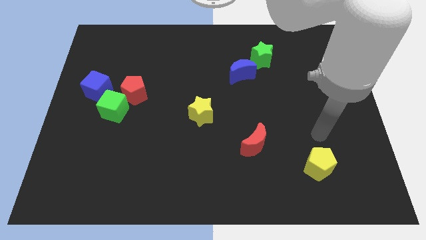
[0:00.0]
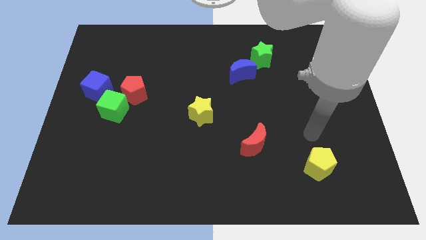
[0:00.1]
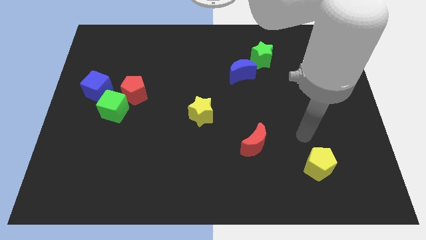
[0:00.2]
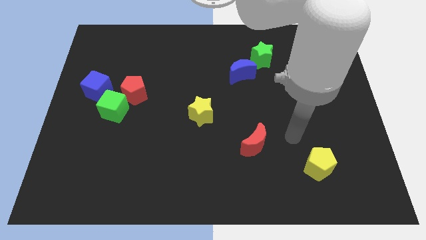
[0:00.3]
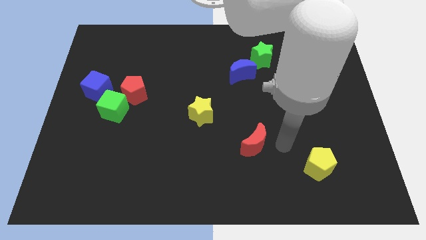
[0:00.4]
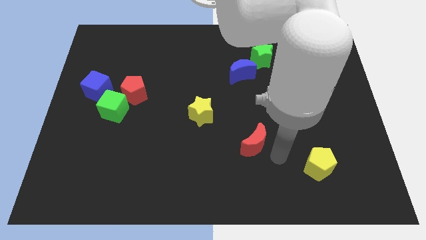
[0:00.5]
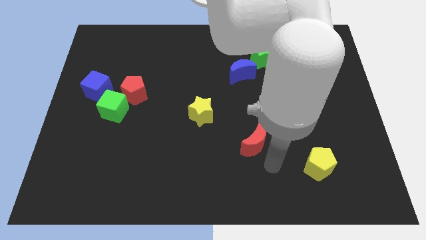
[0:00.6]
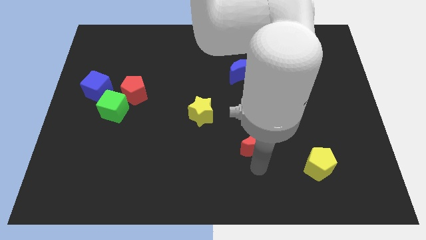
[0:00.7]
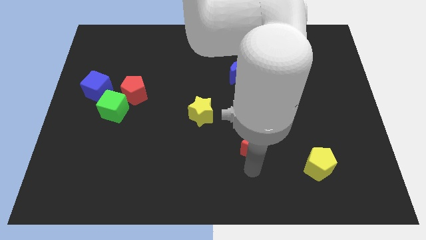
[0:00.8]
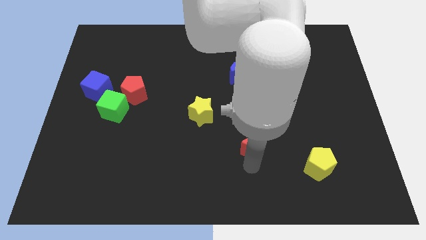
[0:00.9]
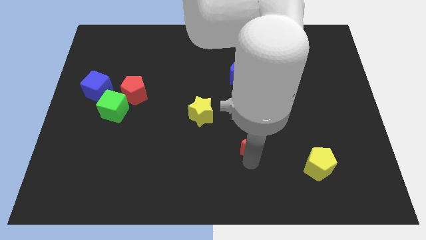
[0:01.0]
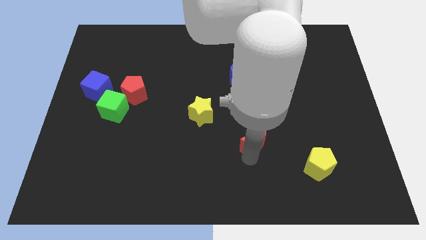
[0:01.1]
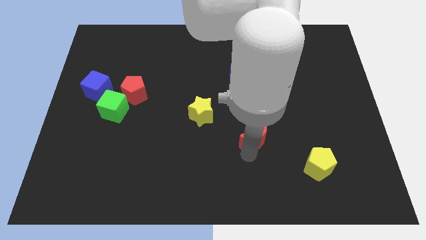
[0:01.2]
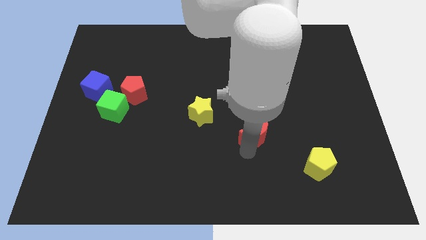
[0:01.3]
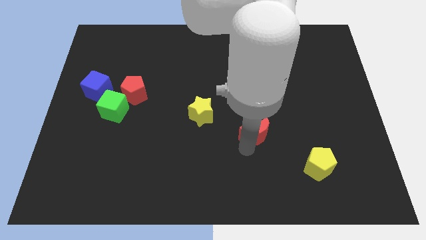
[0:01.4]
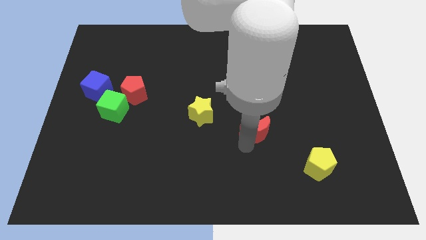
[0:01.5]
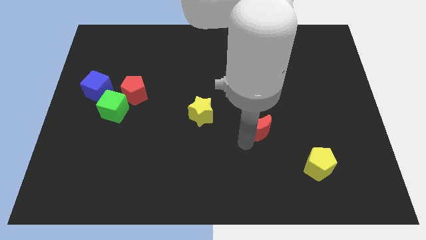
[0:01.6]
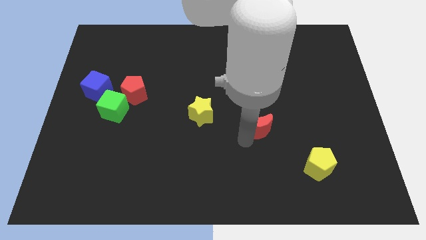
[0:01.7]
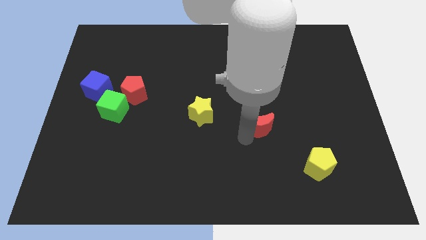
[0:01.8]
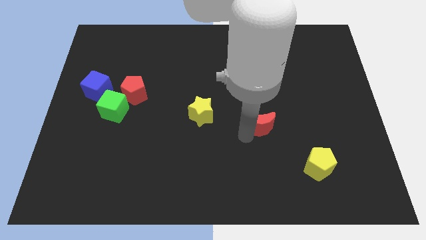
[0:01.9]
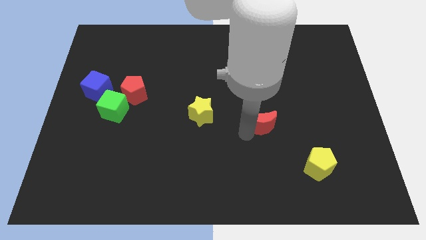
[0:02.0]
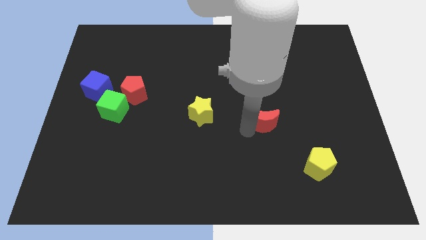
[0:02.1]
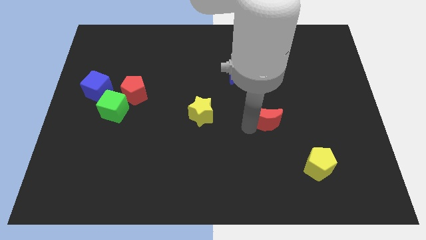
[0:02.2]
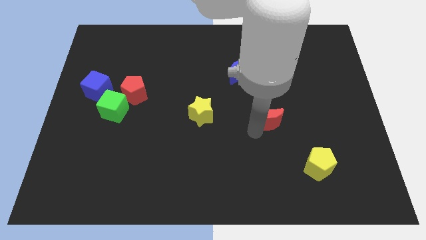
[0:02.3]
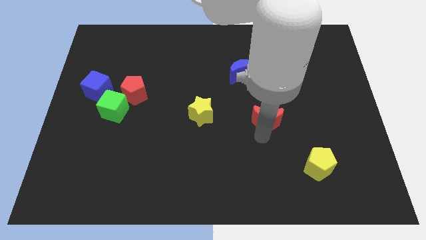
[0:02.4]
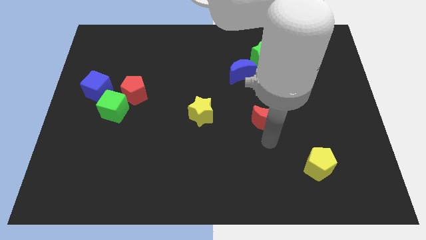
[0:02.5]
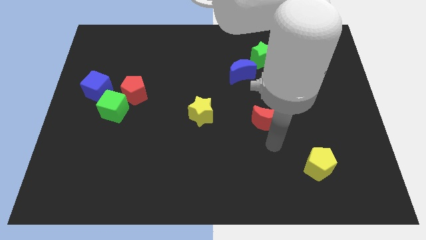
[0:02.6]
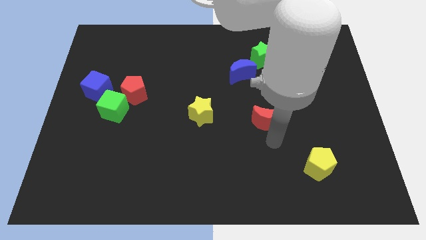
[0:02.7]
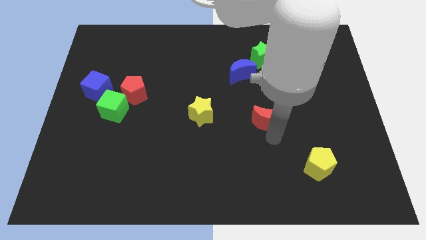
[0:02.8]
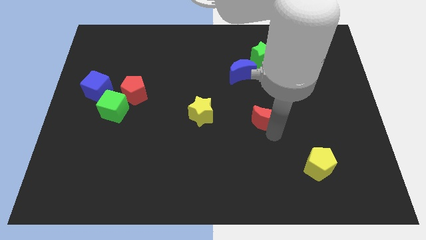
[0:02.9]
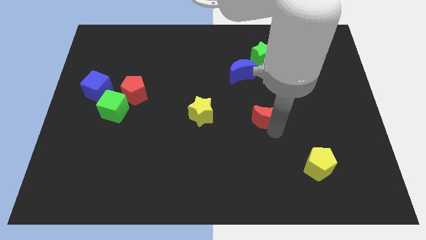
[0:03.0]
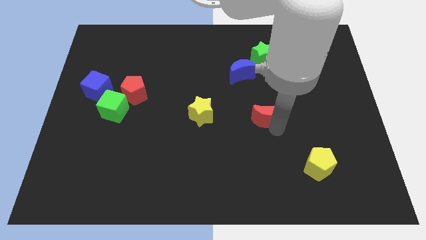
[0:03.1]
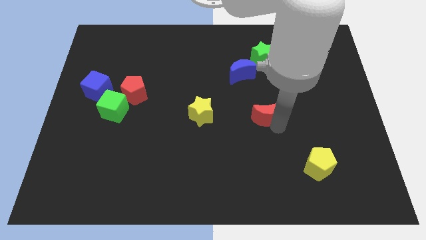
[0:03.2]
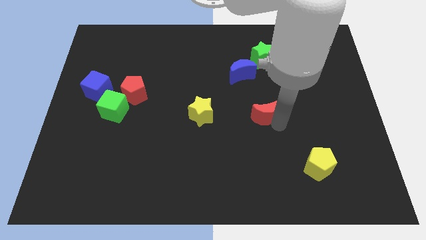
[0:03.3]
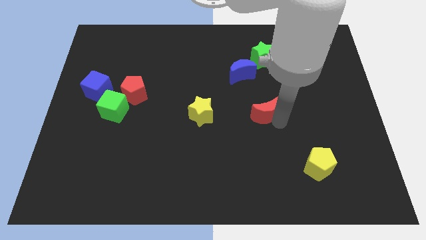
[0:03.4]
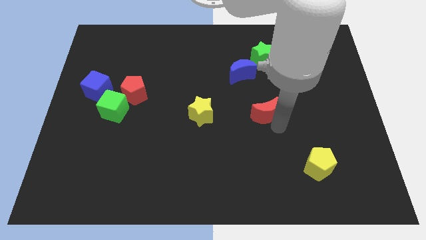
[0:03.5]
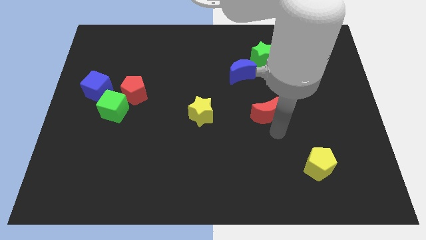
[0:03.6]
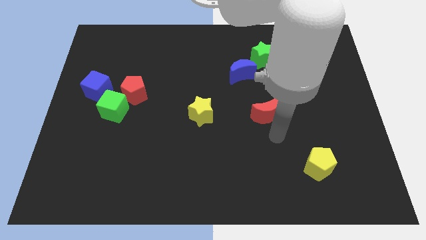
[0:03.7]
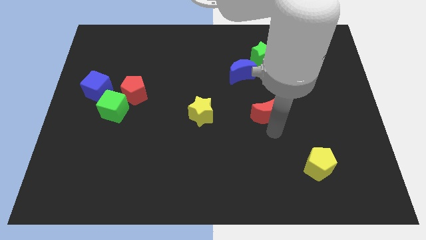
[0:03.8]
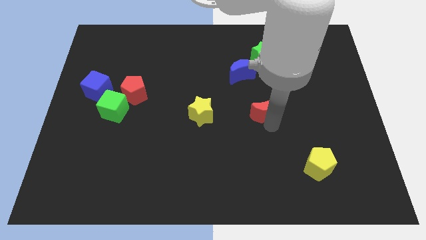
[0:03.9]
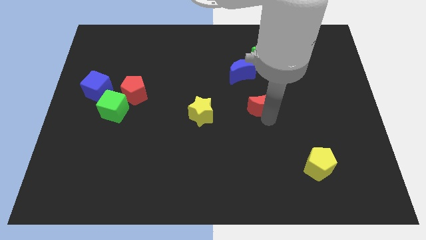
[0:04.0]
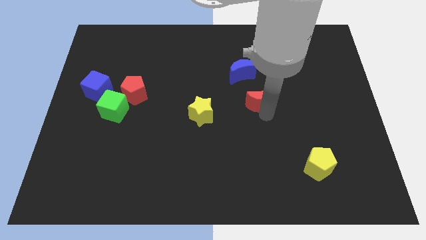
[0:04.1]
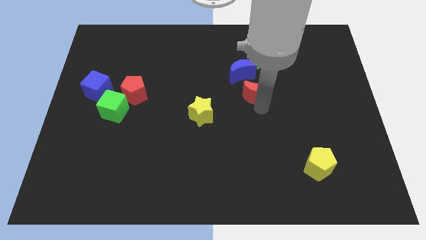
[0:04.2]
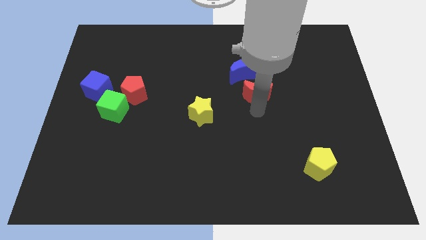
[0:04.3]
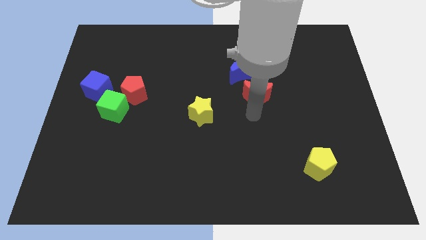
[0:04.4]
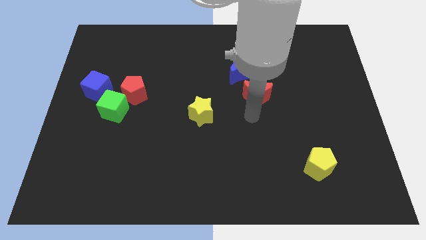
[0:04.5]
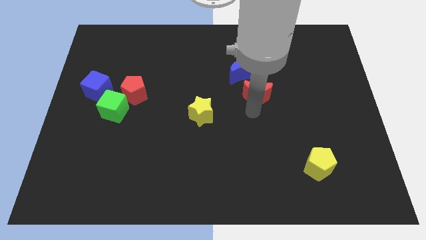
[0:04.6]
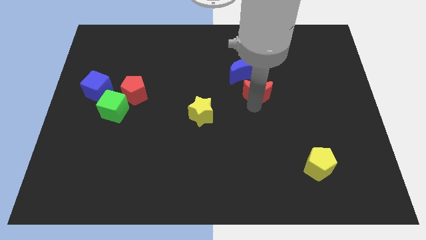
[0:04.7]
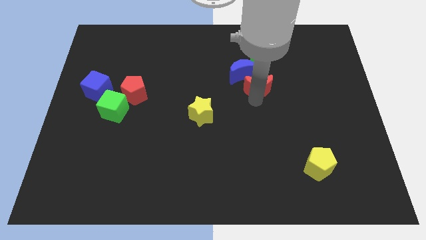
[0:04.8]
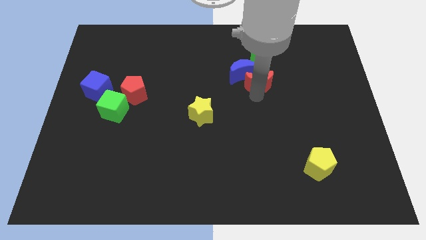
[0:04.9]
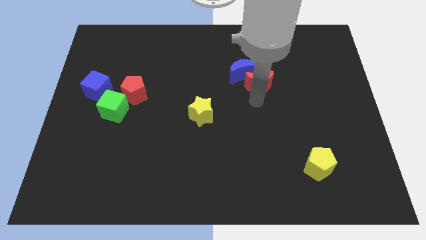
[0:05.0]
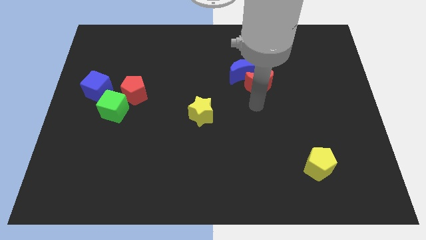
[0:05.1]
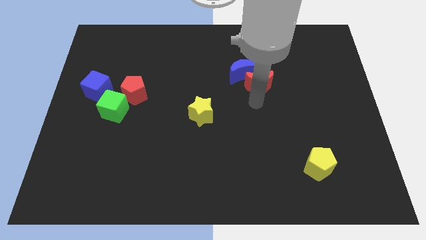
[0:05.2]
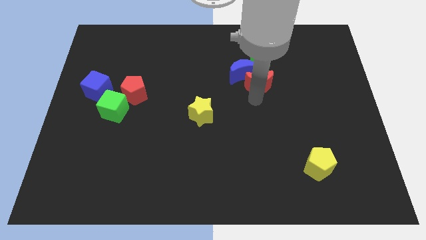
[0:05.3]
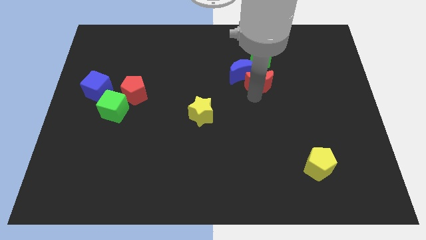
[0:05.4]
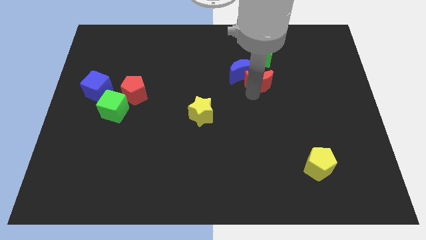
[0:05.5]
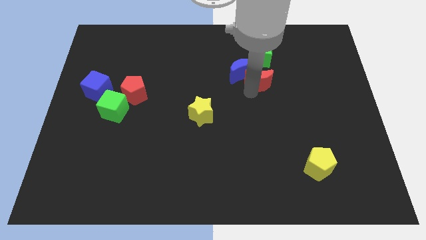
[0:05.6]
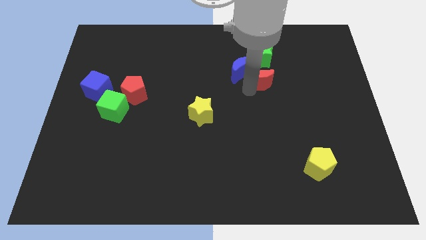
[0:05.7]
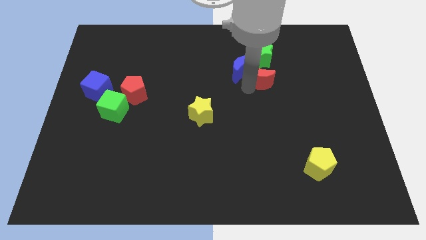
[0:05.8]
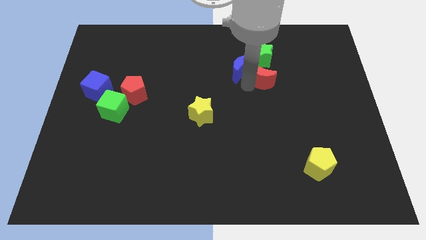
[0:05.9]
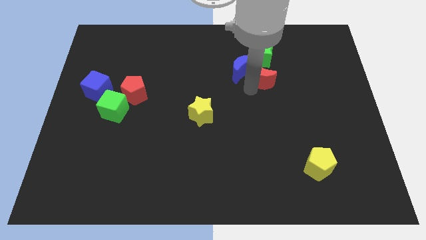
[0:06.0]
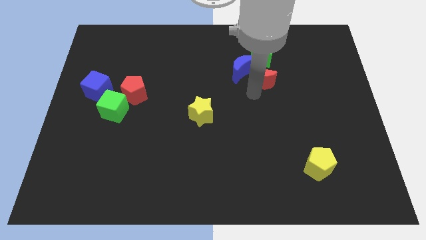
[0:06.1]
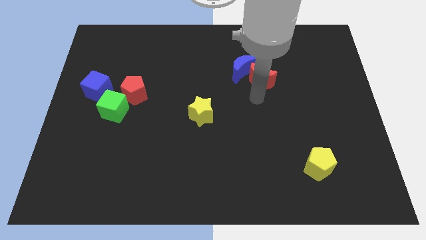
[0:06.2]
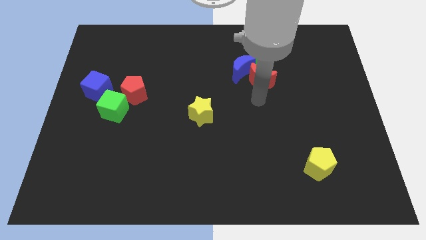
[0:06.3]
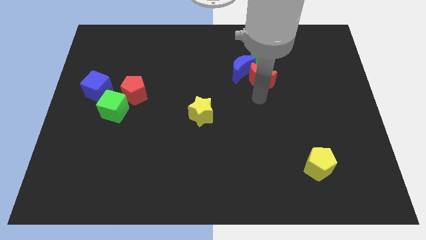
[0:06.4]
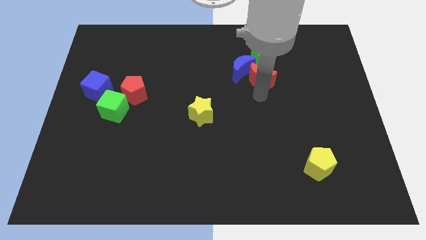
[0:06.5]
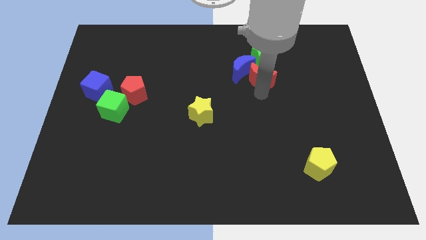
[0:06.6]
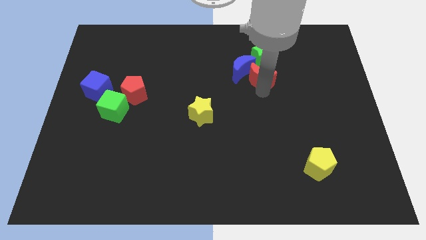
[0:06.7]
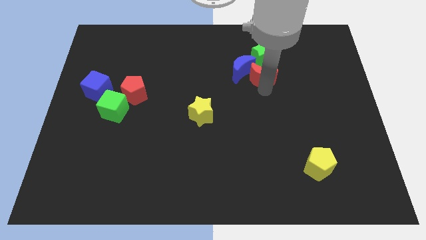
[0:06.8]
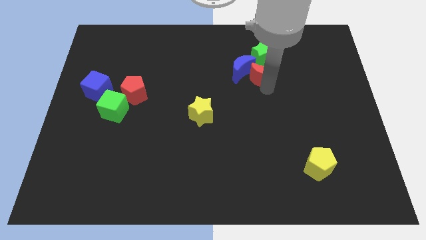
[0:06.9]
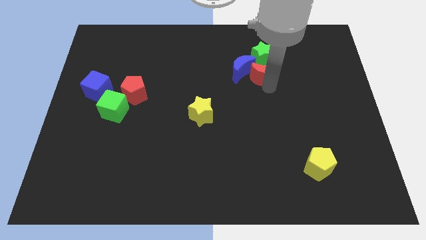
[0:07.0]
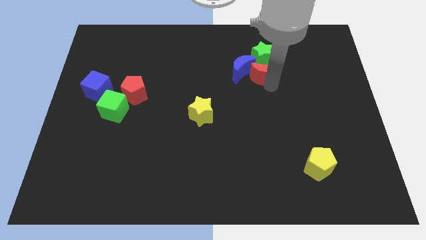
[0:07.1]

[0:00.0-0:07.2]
push the red moon next to the green star
